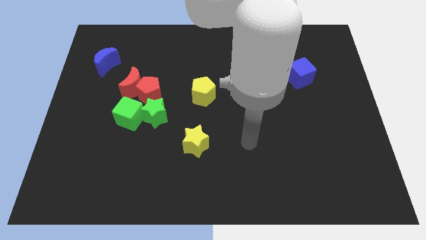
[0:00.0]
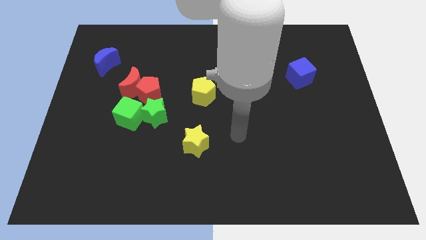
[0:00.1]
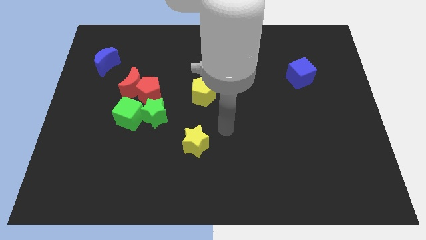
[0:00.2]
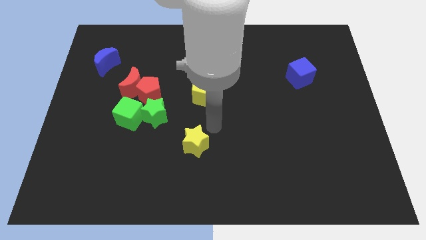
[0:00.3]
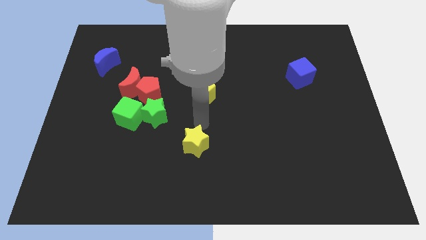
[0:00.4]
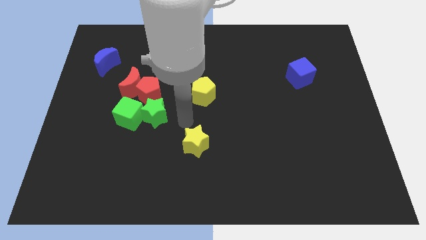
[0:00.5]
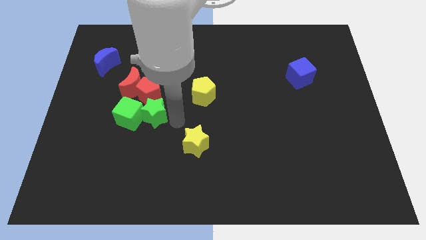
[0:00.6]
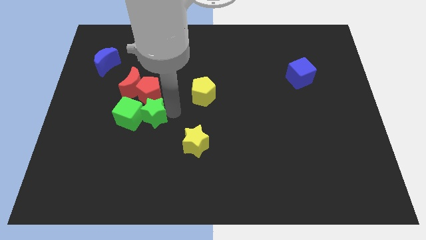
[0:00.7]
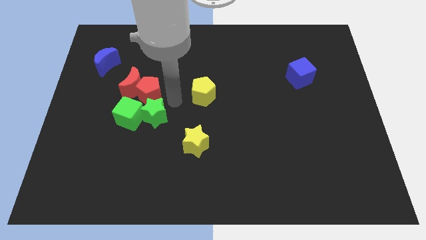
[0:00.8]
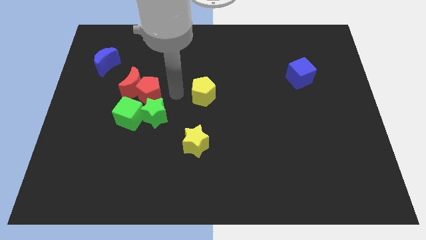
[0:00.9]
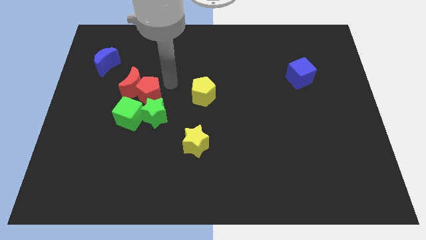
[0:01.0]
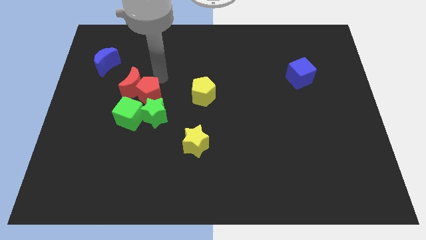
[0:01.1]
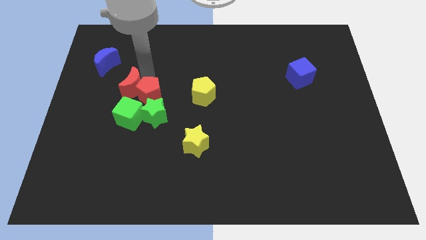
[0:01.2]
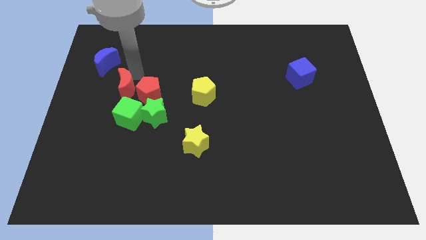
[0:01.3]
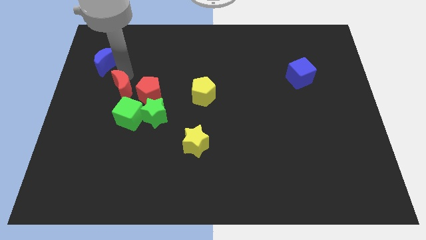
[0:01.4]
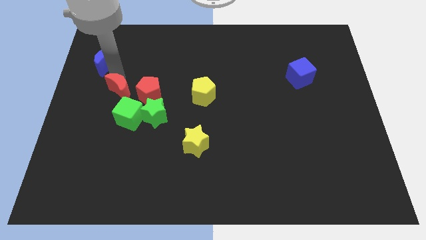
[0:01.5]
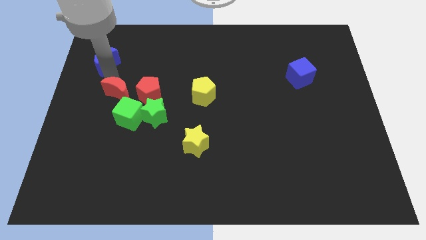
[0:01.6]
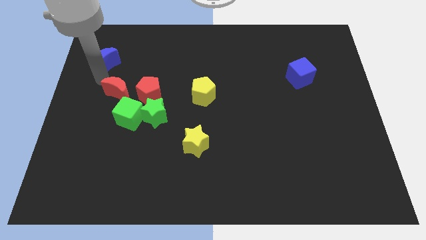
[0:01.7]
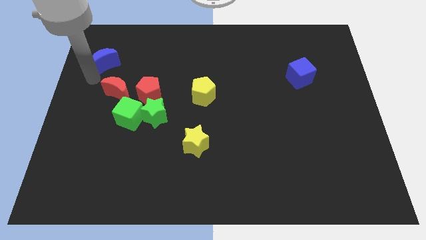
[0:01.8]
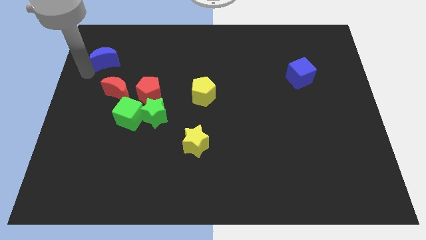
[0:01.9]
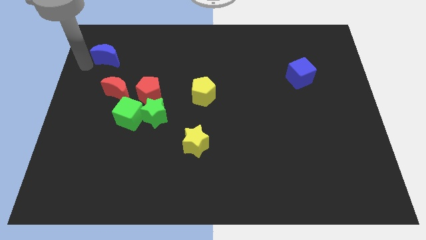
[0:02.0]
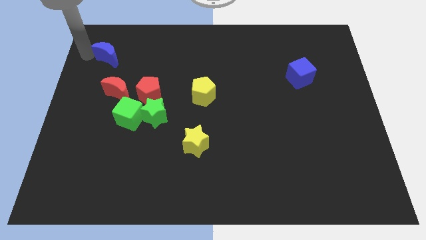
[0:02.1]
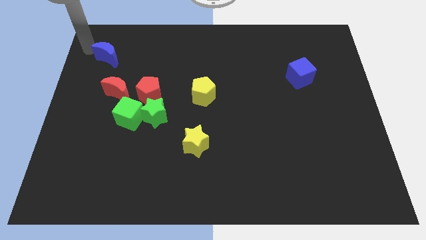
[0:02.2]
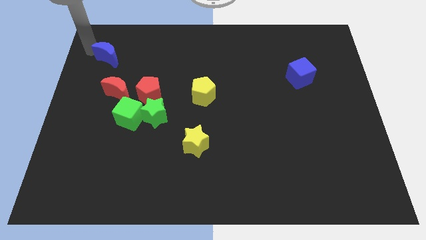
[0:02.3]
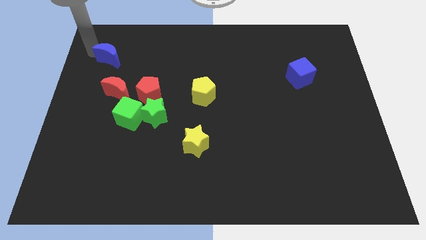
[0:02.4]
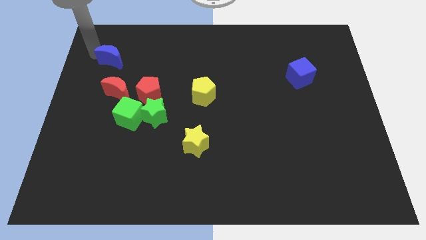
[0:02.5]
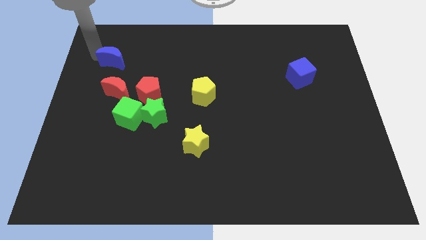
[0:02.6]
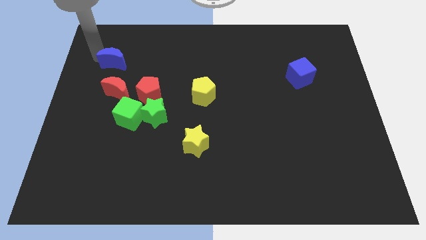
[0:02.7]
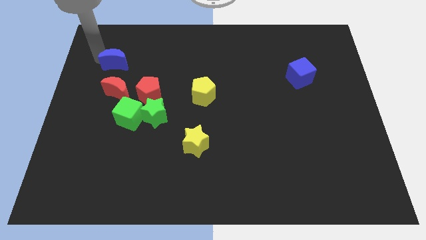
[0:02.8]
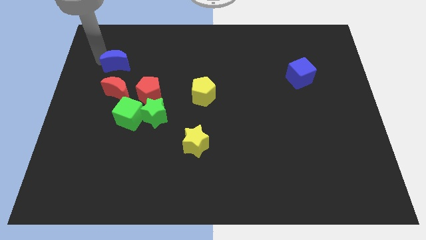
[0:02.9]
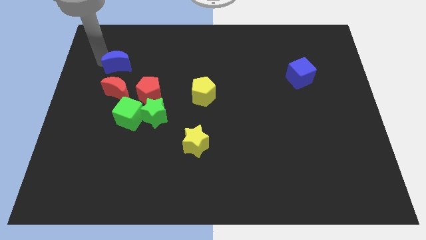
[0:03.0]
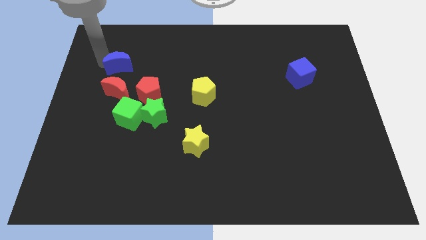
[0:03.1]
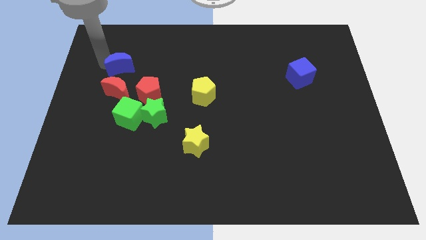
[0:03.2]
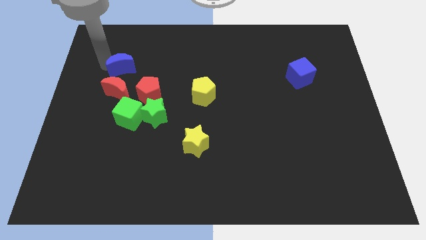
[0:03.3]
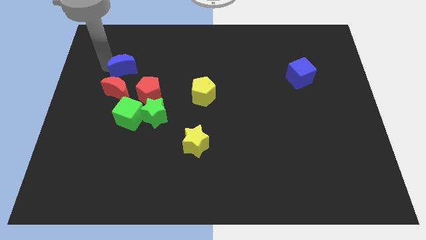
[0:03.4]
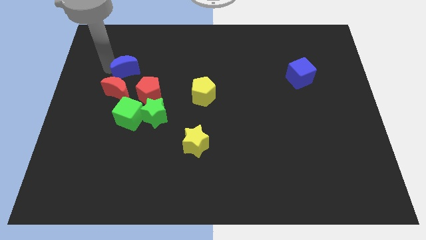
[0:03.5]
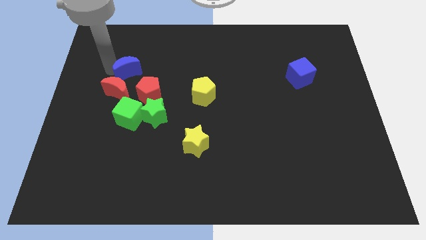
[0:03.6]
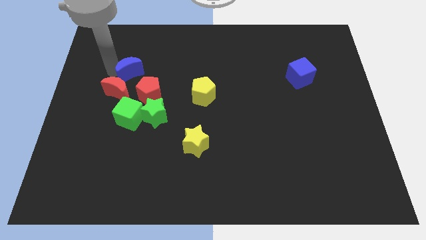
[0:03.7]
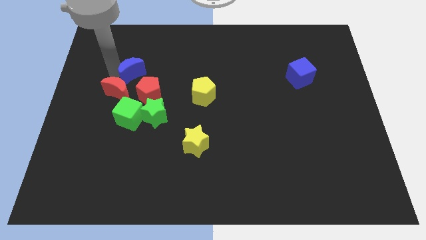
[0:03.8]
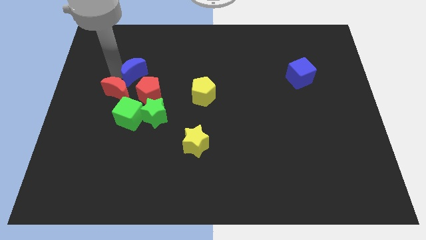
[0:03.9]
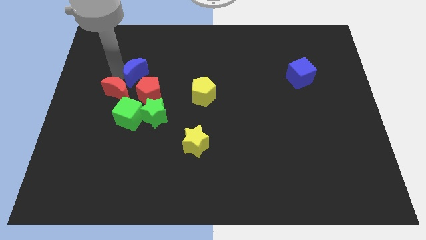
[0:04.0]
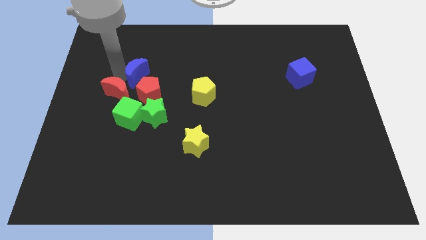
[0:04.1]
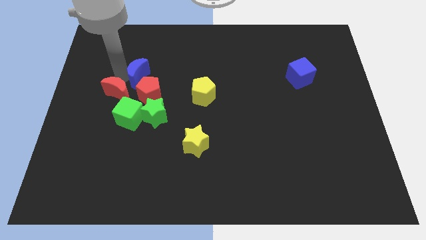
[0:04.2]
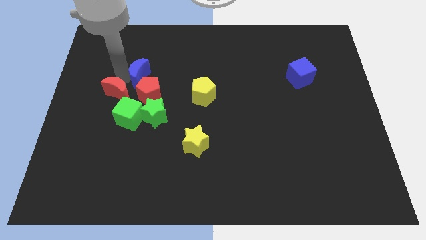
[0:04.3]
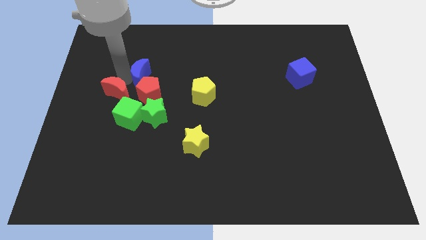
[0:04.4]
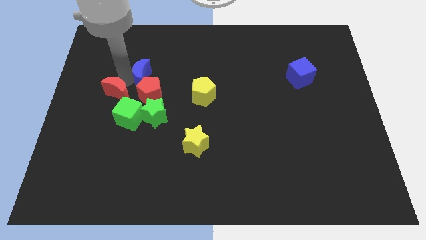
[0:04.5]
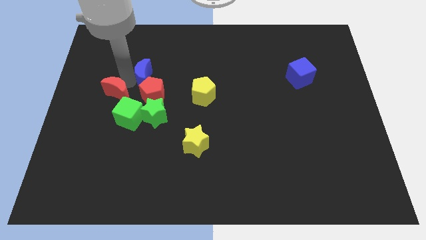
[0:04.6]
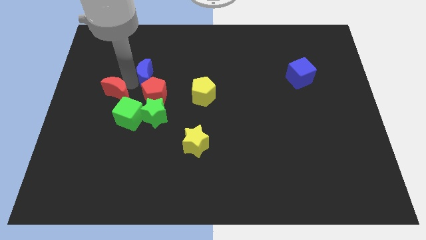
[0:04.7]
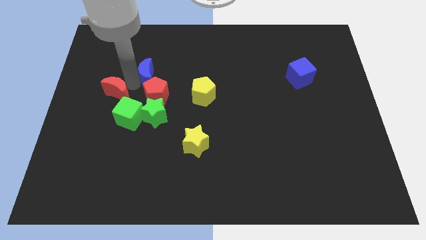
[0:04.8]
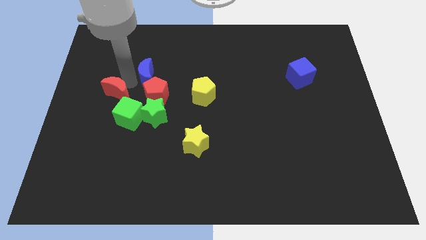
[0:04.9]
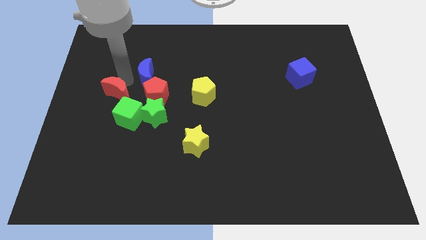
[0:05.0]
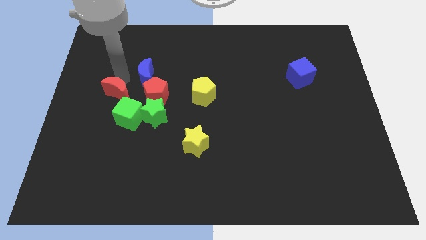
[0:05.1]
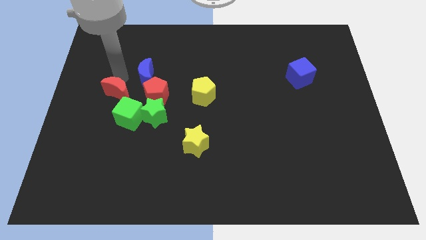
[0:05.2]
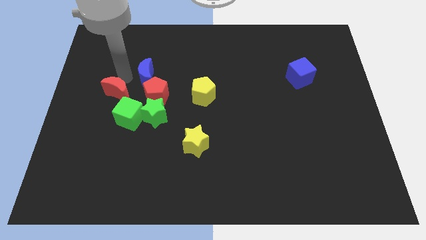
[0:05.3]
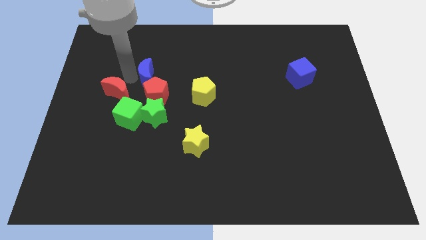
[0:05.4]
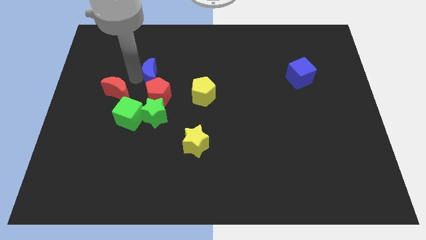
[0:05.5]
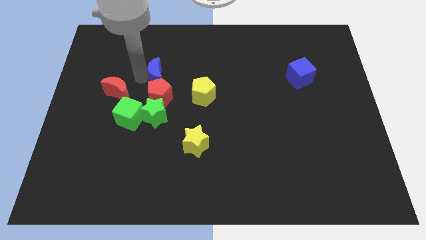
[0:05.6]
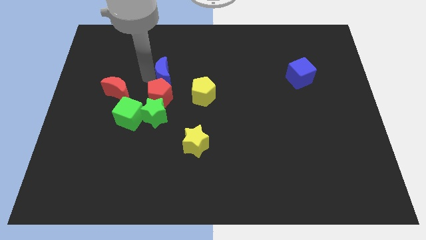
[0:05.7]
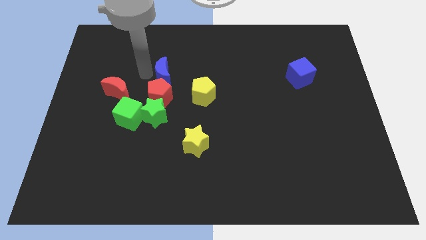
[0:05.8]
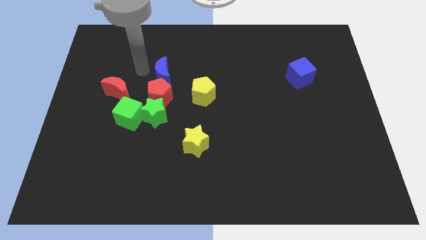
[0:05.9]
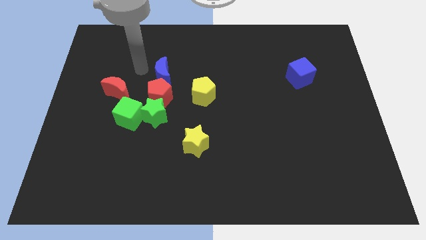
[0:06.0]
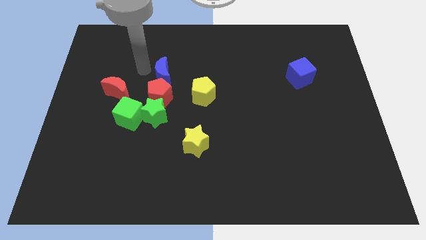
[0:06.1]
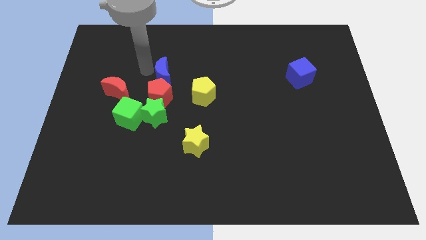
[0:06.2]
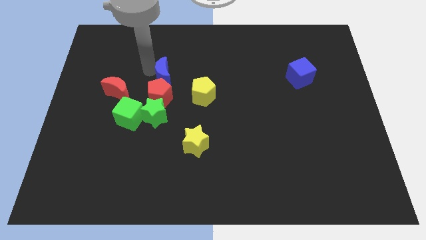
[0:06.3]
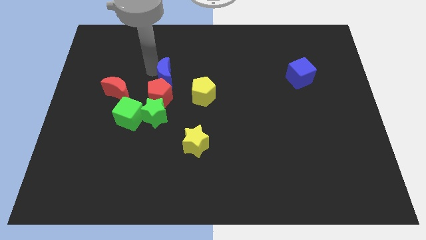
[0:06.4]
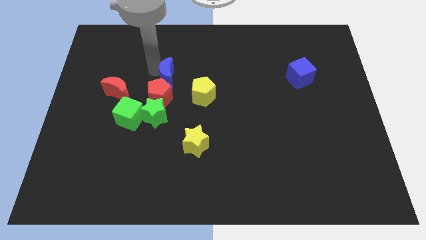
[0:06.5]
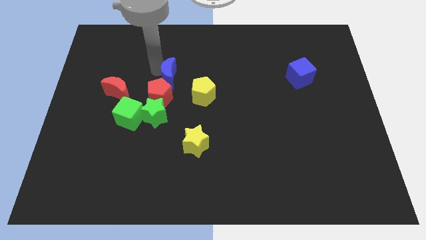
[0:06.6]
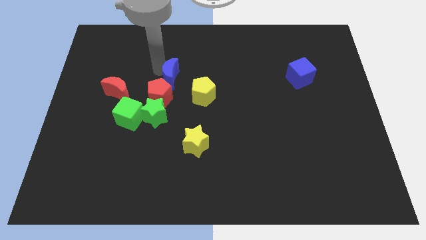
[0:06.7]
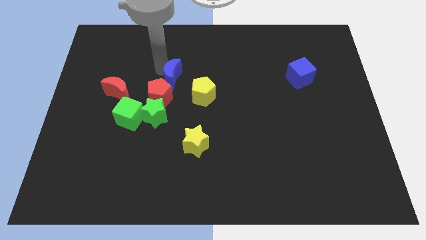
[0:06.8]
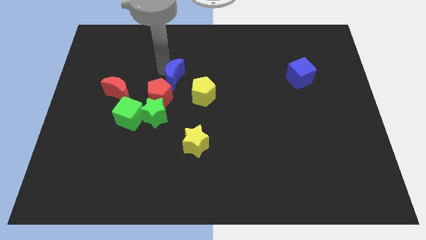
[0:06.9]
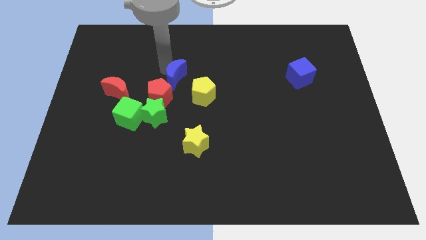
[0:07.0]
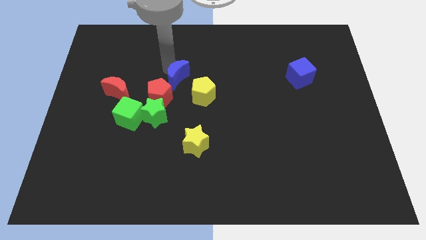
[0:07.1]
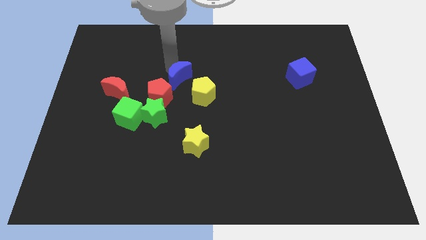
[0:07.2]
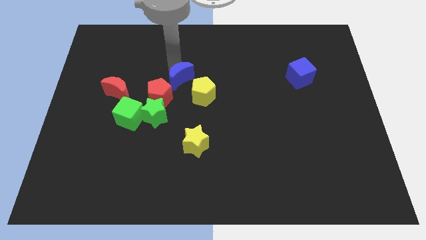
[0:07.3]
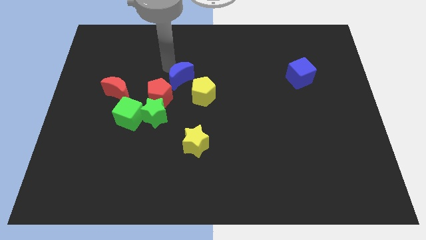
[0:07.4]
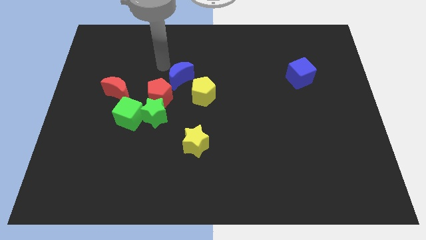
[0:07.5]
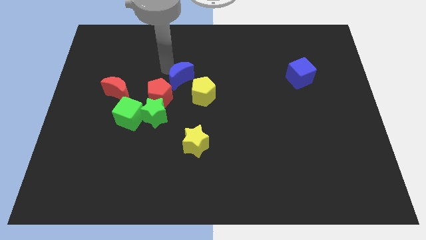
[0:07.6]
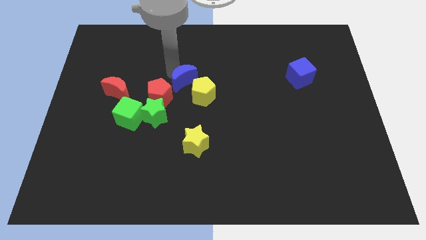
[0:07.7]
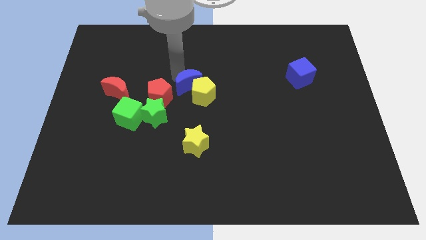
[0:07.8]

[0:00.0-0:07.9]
push the blue moon close to the yellow pentagon
